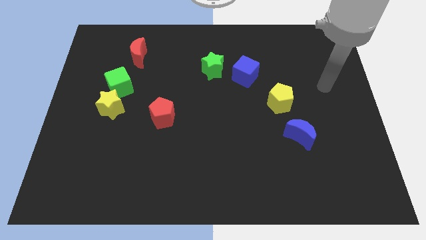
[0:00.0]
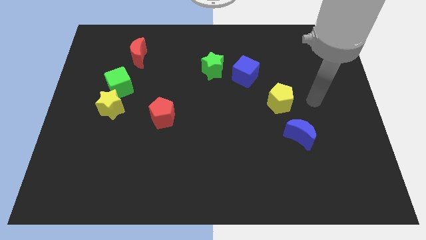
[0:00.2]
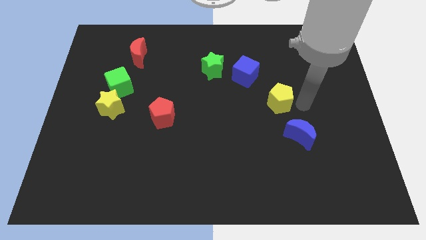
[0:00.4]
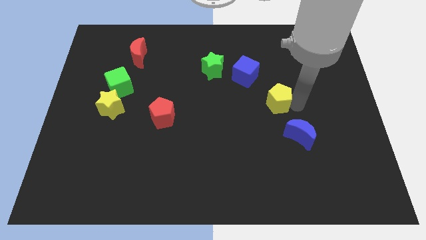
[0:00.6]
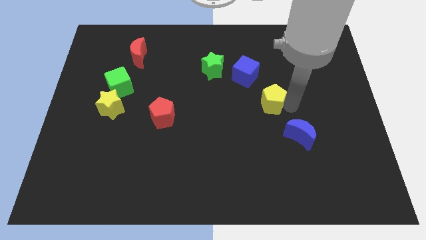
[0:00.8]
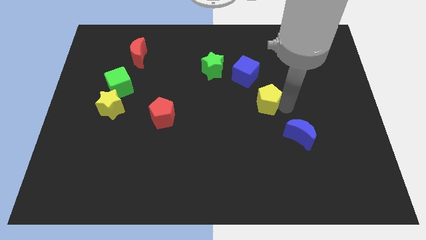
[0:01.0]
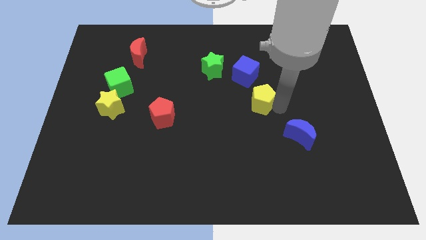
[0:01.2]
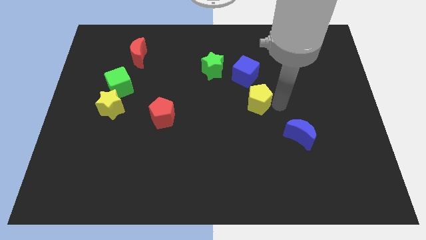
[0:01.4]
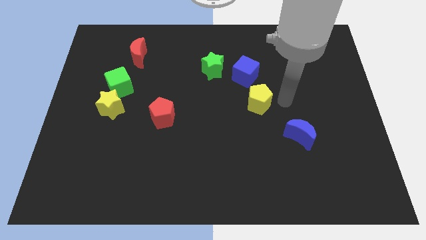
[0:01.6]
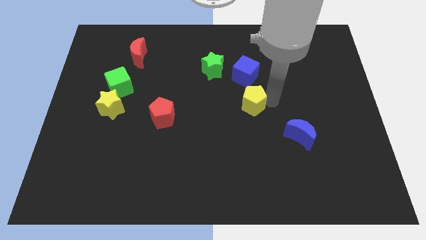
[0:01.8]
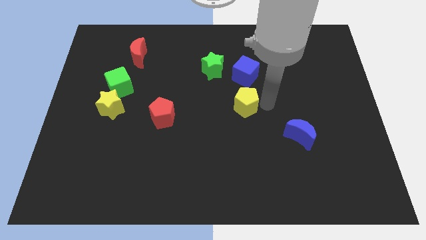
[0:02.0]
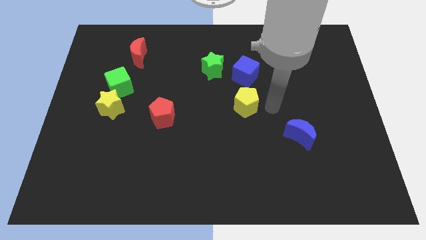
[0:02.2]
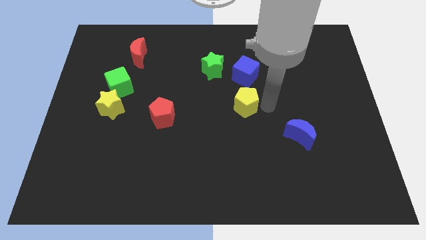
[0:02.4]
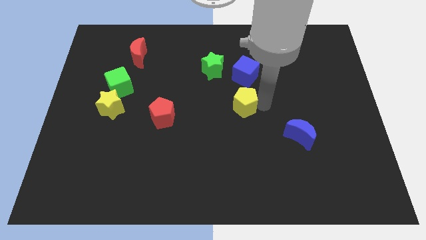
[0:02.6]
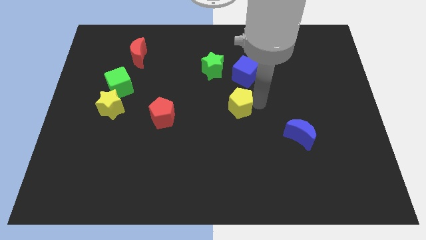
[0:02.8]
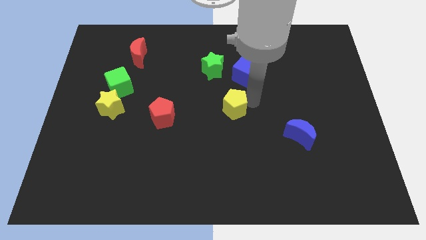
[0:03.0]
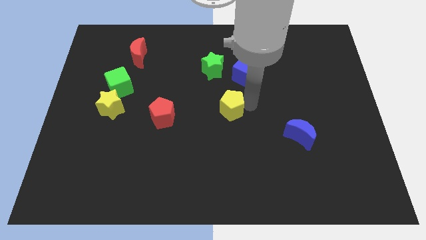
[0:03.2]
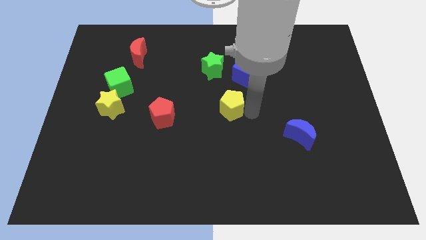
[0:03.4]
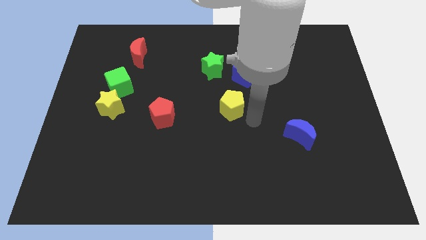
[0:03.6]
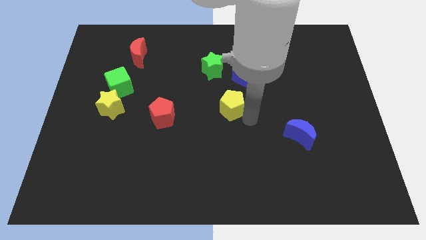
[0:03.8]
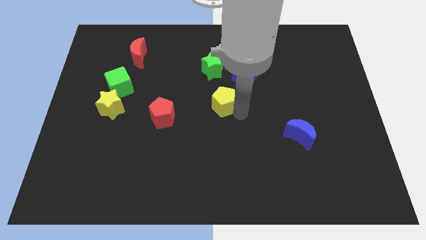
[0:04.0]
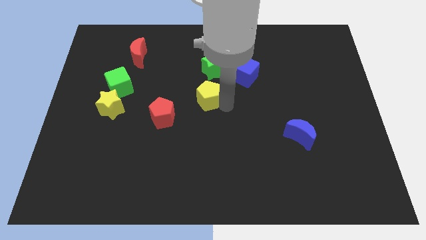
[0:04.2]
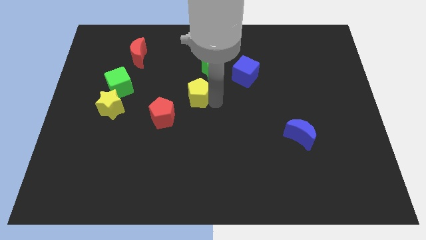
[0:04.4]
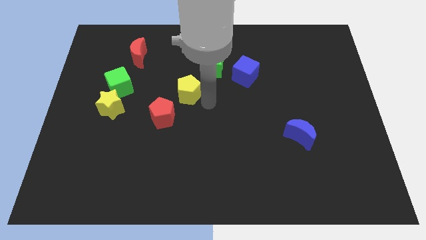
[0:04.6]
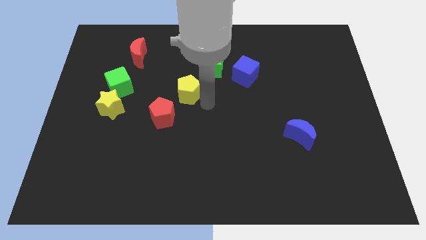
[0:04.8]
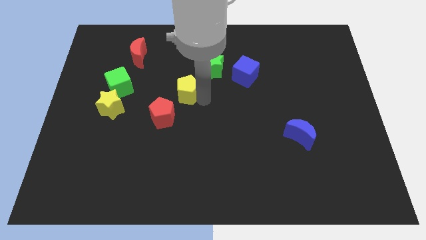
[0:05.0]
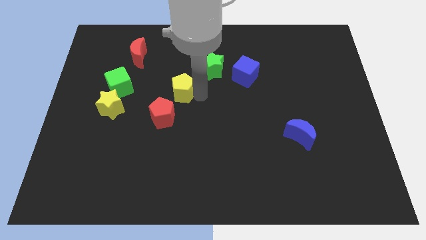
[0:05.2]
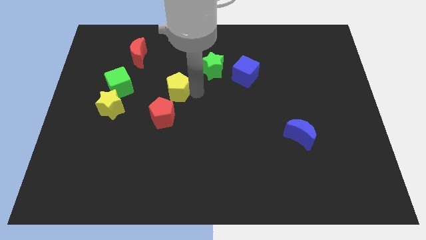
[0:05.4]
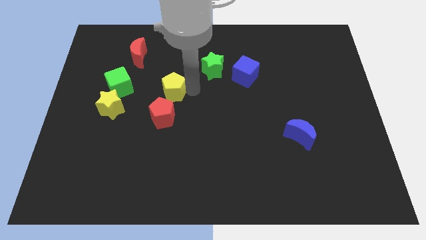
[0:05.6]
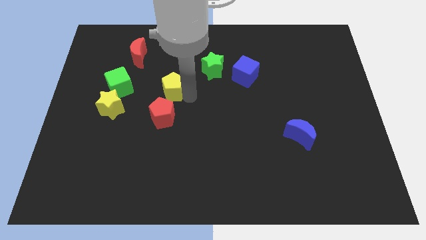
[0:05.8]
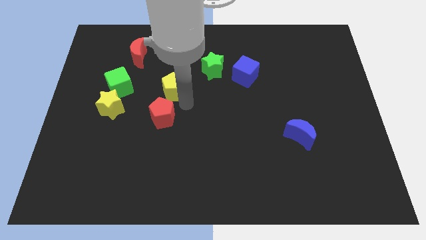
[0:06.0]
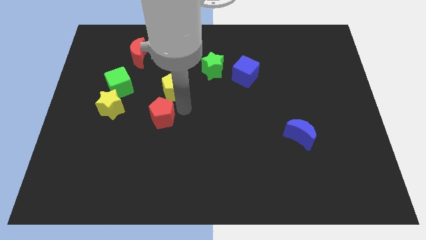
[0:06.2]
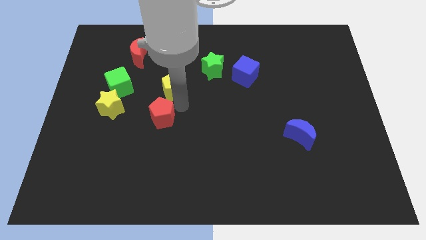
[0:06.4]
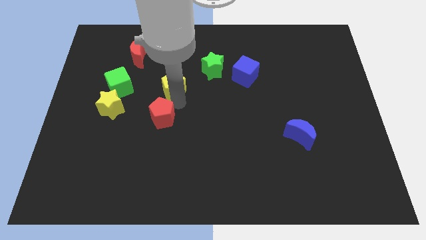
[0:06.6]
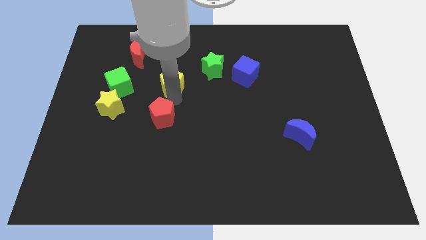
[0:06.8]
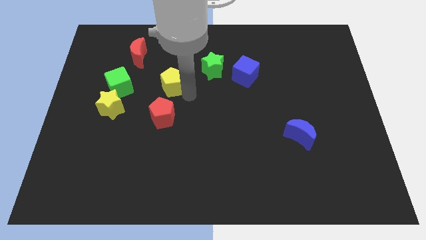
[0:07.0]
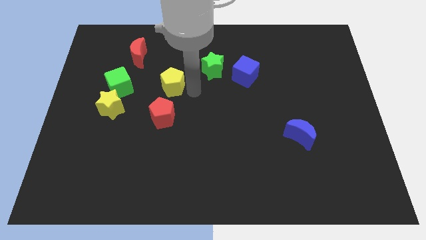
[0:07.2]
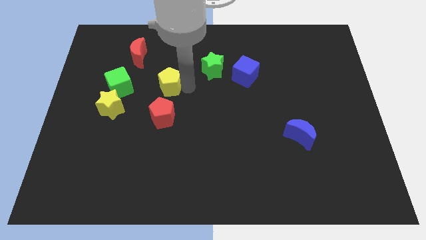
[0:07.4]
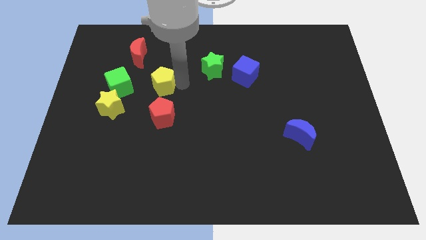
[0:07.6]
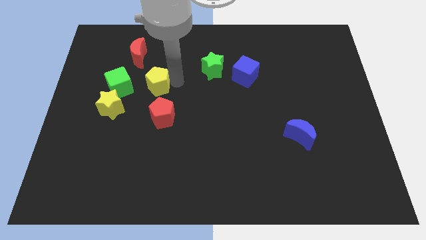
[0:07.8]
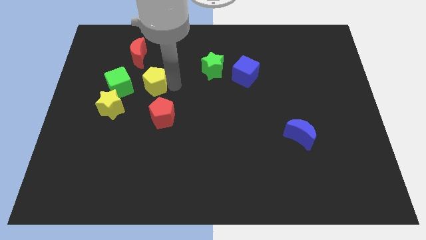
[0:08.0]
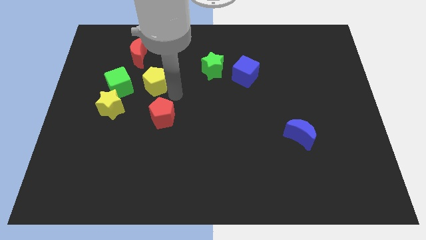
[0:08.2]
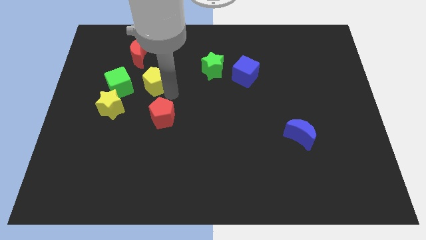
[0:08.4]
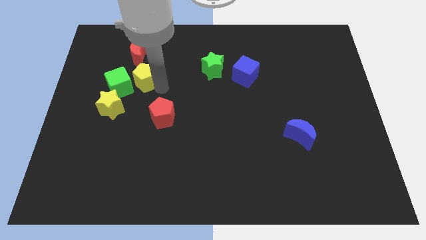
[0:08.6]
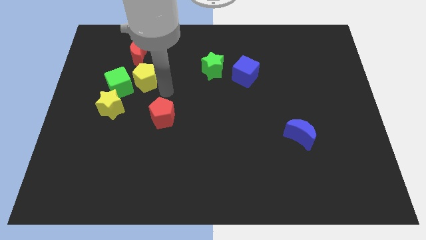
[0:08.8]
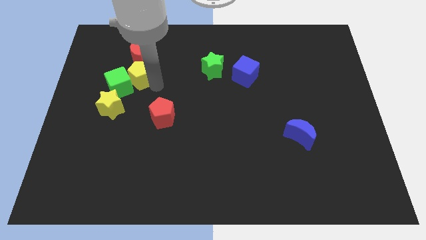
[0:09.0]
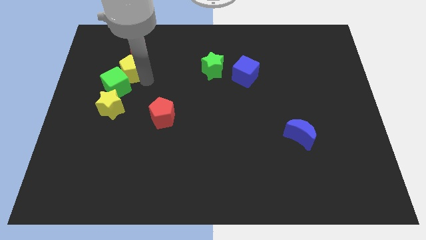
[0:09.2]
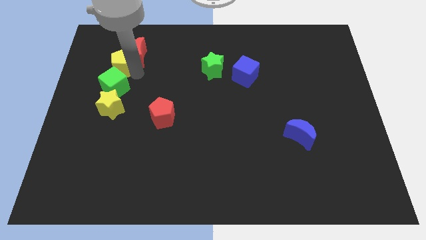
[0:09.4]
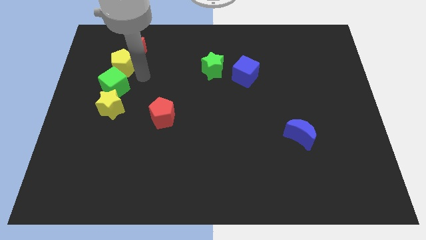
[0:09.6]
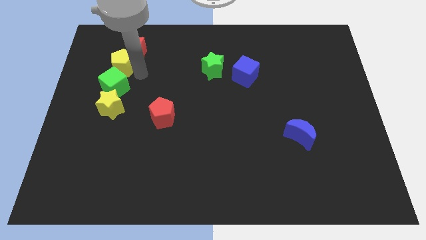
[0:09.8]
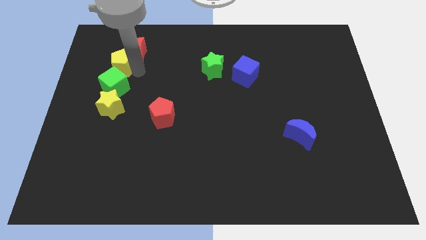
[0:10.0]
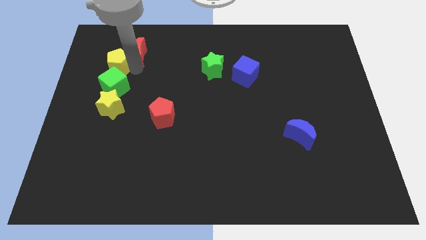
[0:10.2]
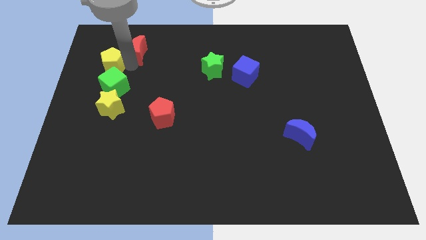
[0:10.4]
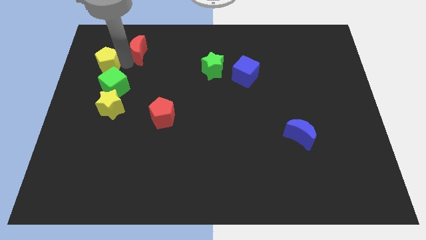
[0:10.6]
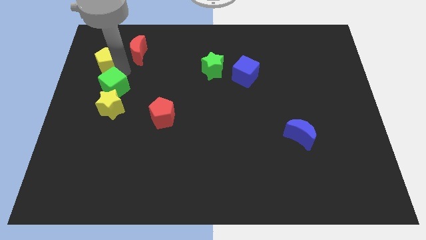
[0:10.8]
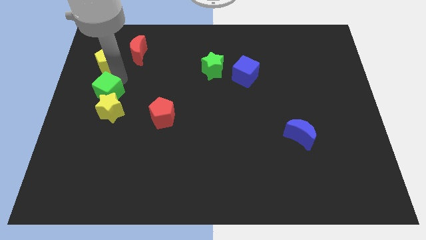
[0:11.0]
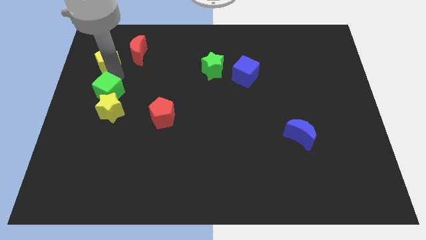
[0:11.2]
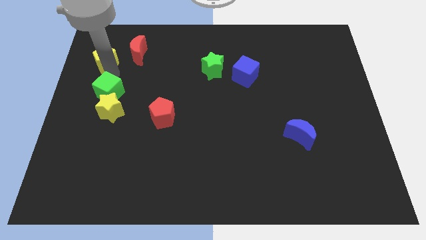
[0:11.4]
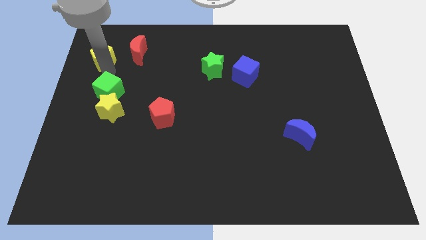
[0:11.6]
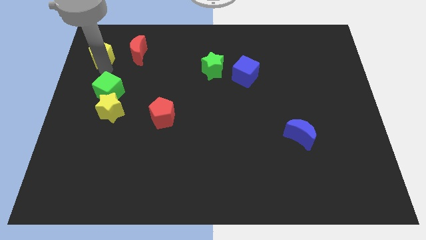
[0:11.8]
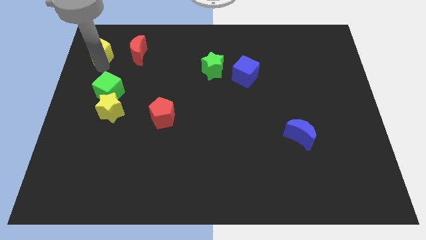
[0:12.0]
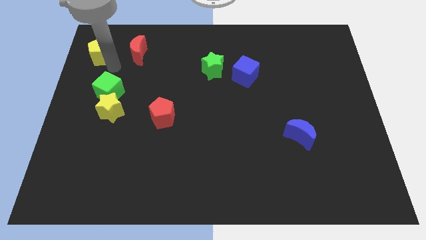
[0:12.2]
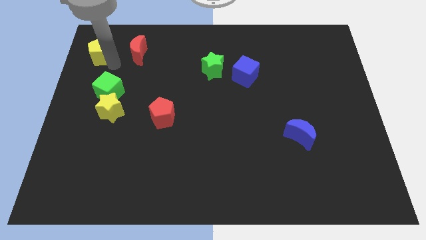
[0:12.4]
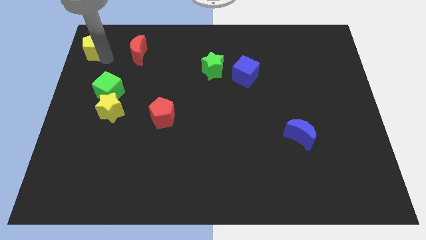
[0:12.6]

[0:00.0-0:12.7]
move the yellow pentagon to the top left

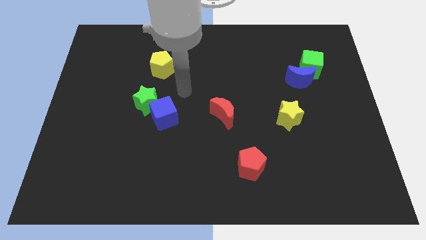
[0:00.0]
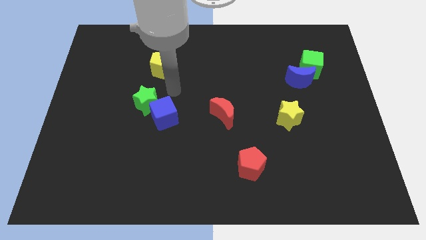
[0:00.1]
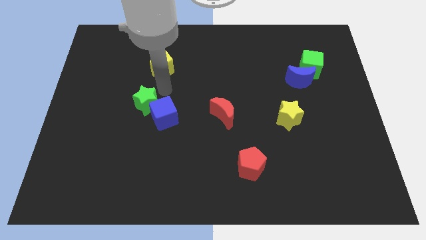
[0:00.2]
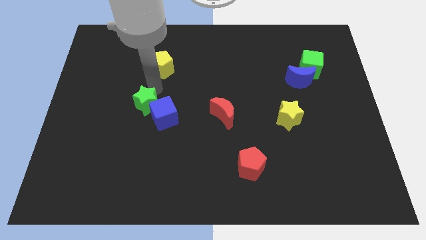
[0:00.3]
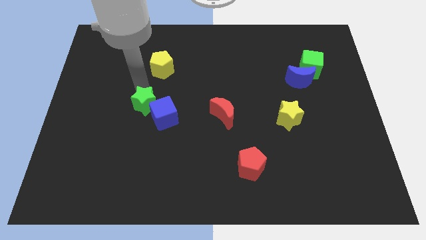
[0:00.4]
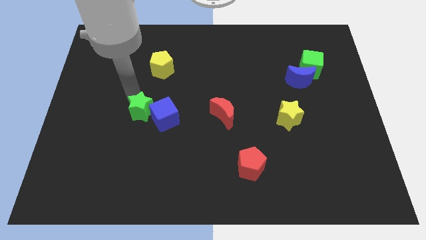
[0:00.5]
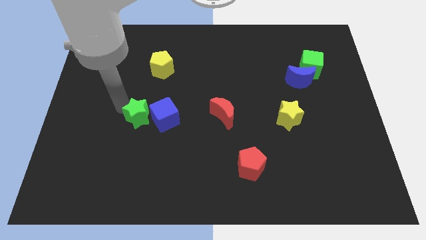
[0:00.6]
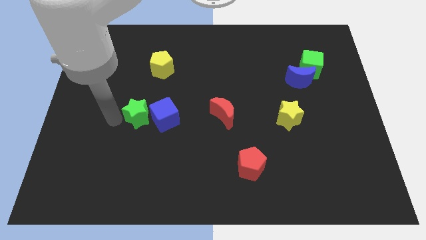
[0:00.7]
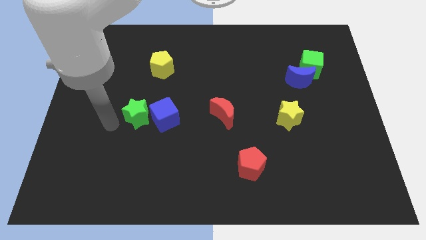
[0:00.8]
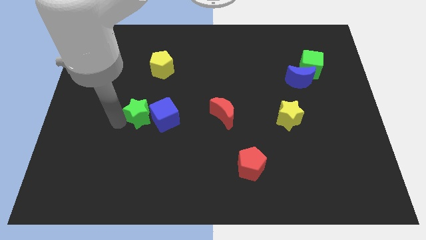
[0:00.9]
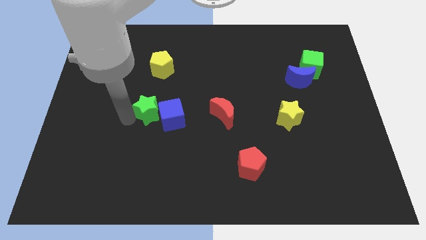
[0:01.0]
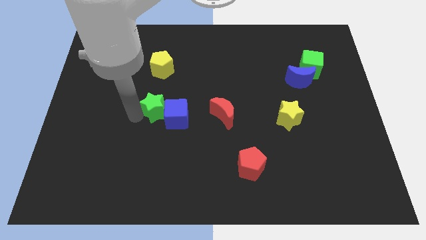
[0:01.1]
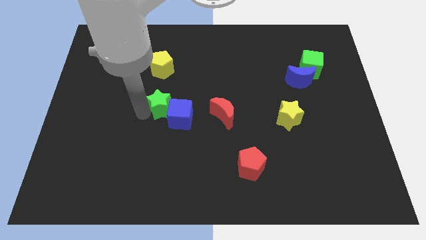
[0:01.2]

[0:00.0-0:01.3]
push the green star to the middle

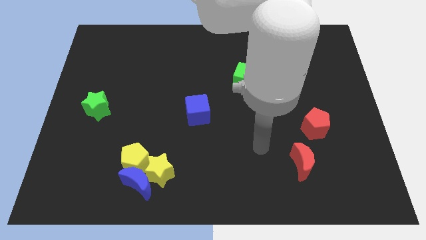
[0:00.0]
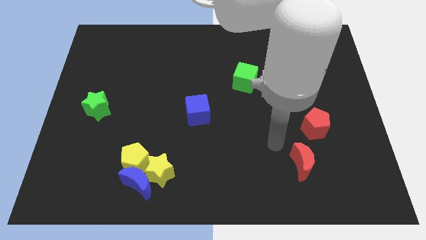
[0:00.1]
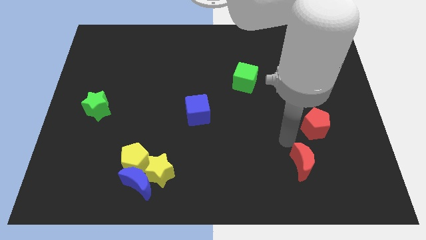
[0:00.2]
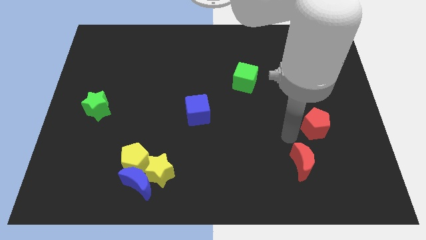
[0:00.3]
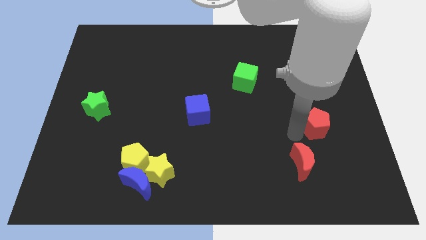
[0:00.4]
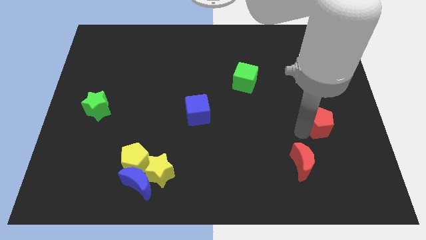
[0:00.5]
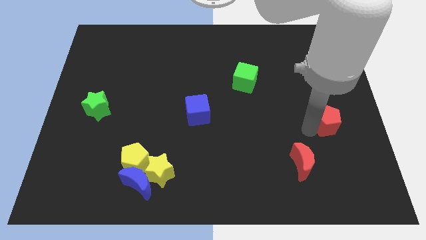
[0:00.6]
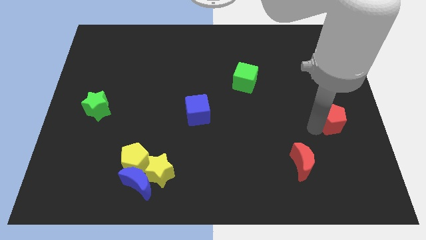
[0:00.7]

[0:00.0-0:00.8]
push the red pentagon to the right side of the board
